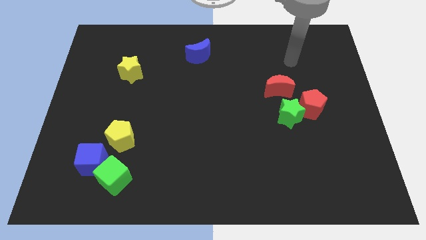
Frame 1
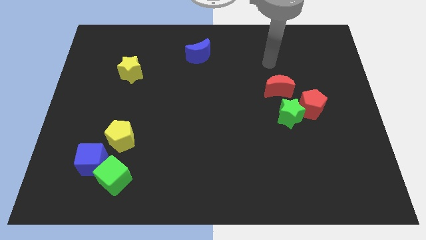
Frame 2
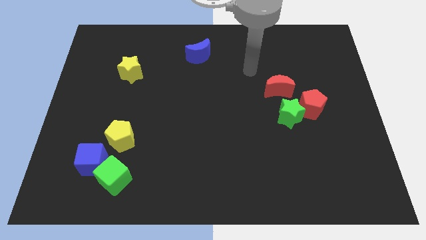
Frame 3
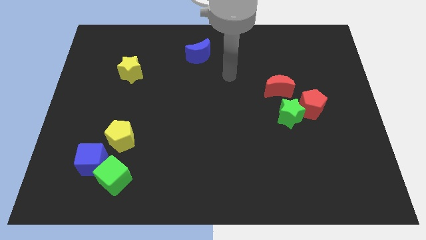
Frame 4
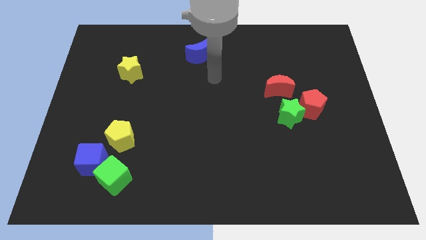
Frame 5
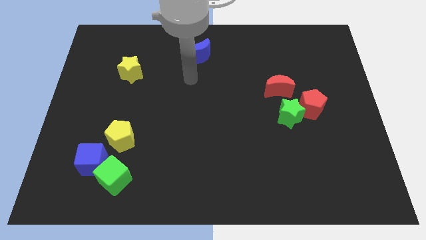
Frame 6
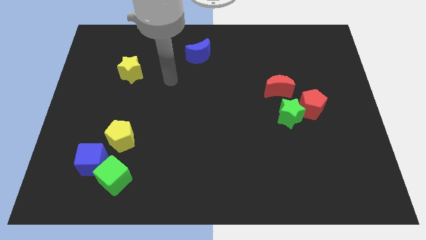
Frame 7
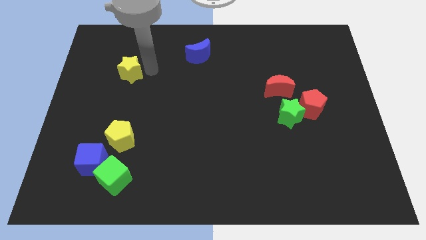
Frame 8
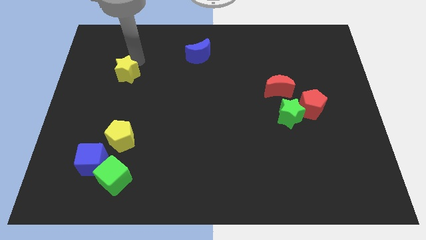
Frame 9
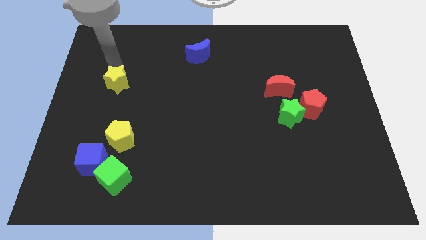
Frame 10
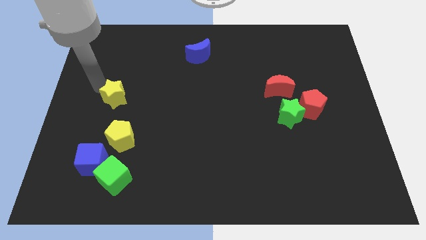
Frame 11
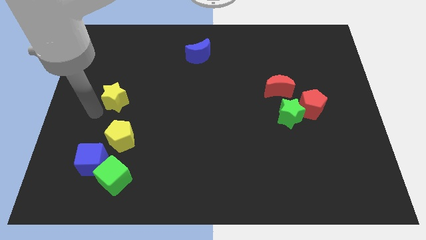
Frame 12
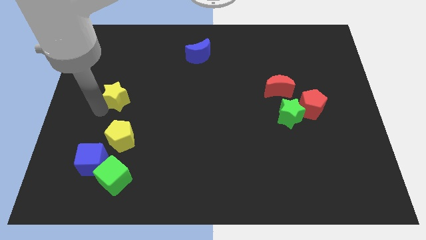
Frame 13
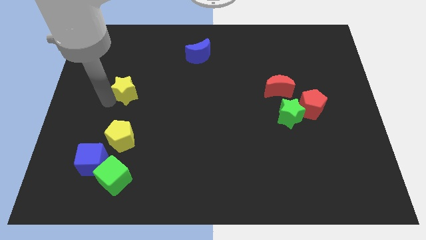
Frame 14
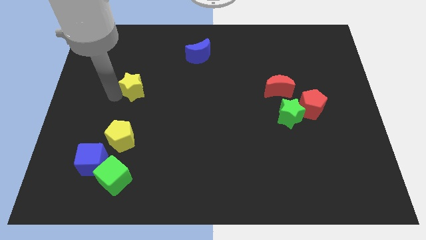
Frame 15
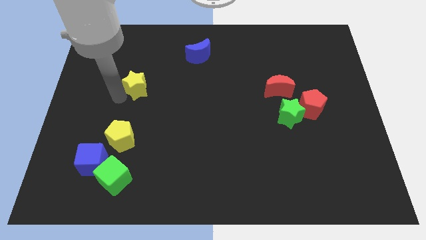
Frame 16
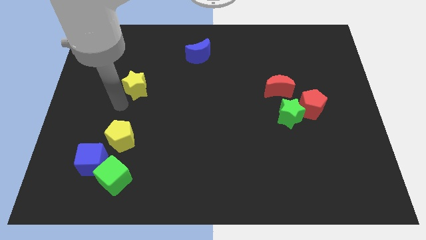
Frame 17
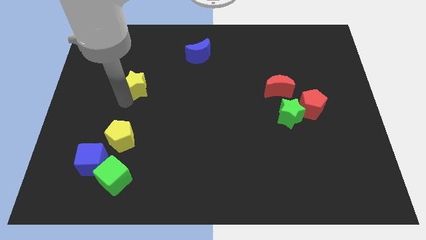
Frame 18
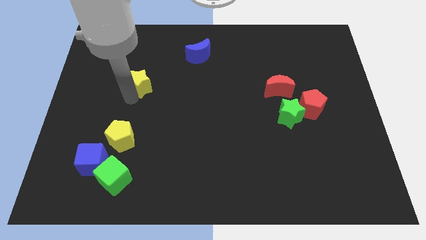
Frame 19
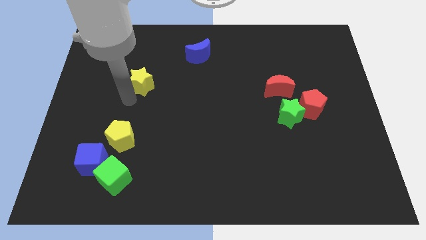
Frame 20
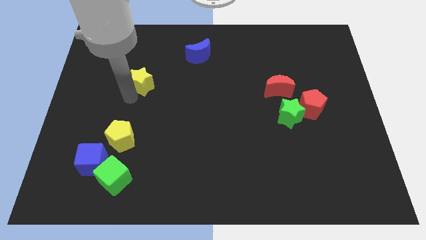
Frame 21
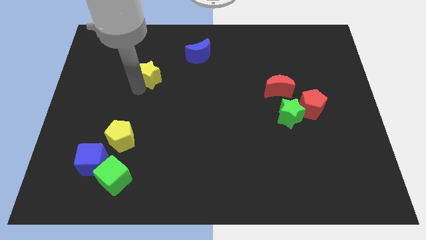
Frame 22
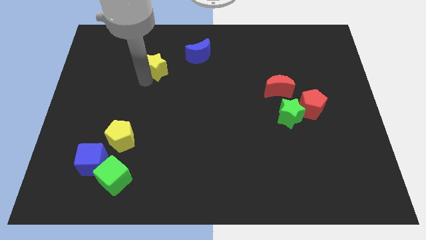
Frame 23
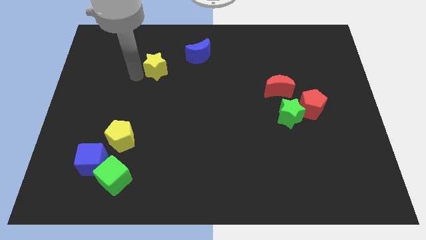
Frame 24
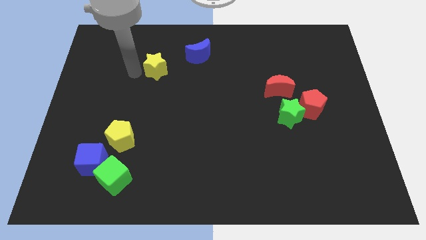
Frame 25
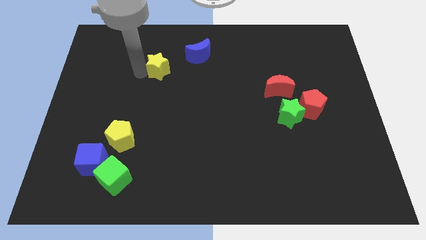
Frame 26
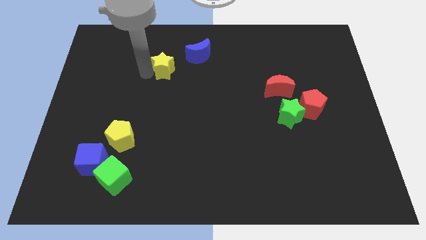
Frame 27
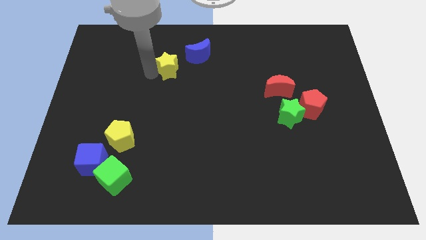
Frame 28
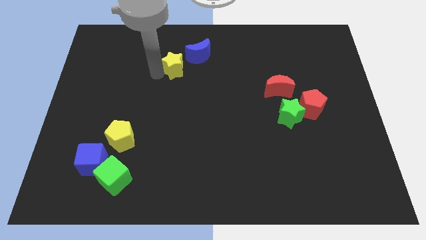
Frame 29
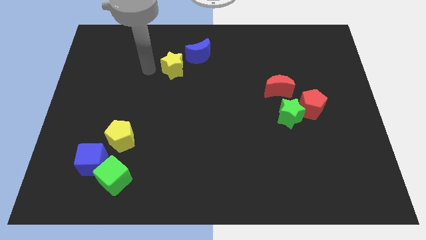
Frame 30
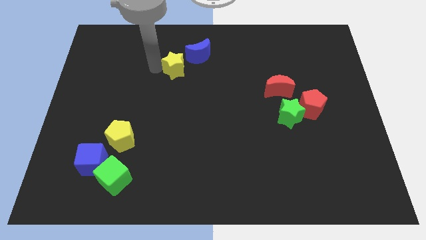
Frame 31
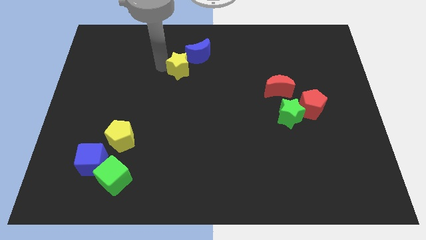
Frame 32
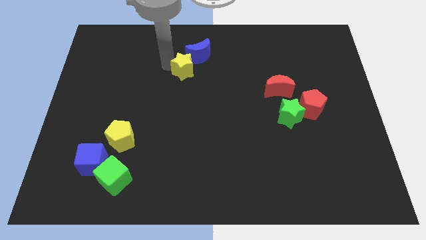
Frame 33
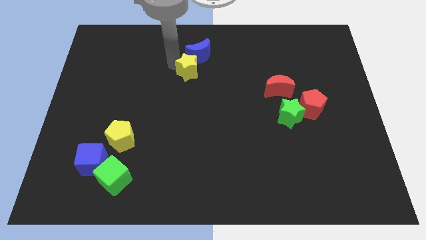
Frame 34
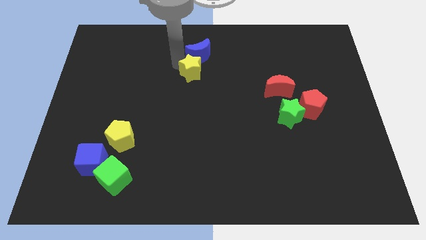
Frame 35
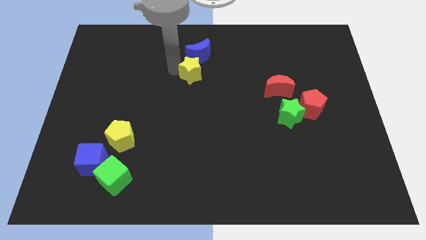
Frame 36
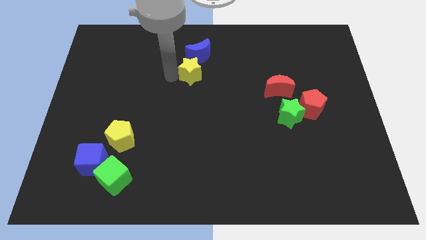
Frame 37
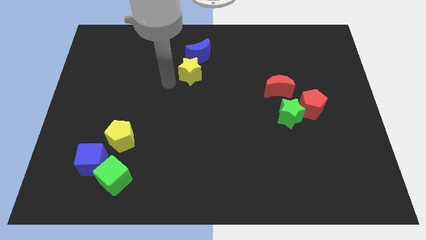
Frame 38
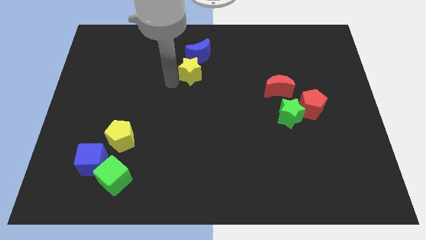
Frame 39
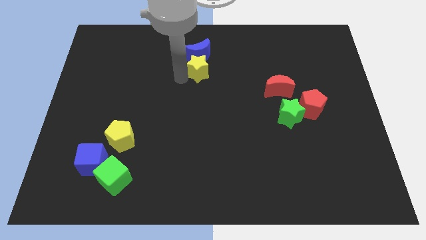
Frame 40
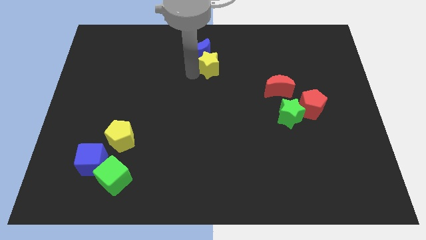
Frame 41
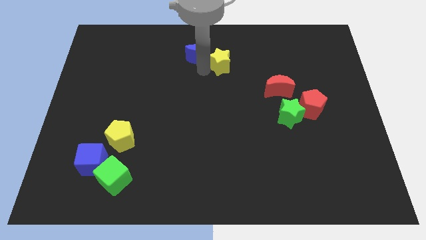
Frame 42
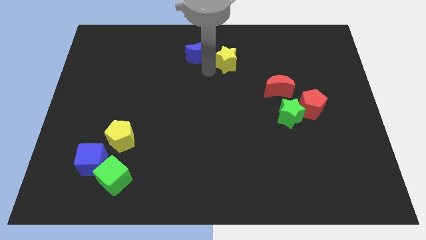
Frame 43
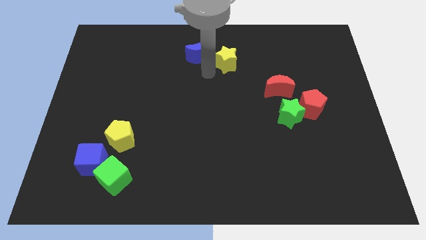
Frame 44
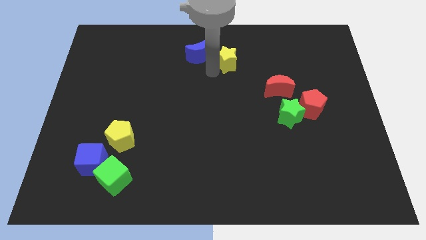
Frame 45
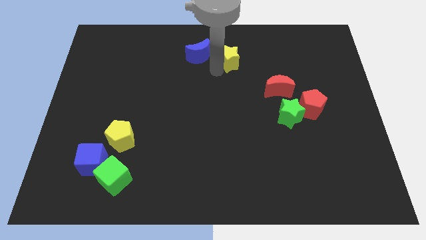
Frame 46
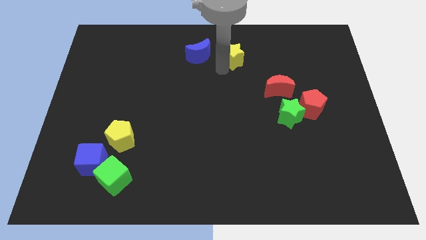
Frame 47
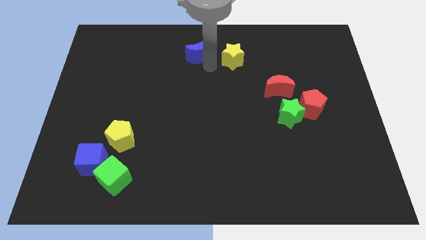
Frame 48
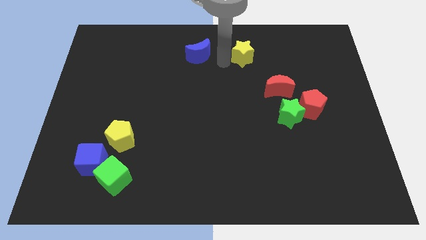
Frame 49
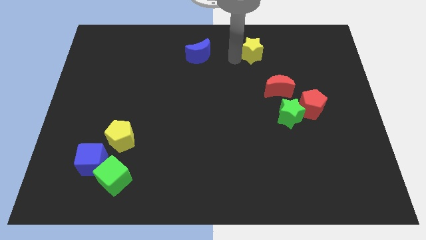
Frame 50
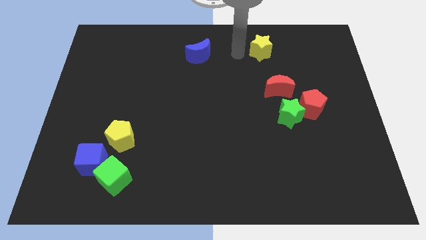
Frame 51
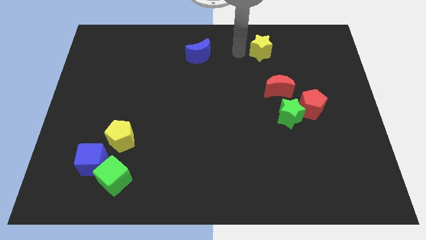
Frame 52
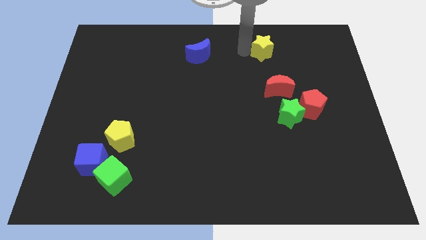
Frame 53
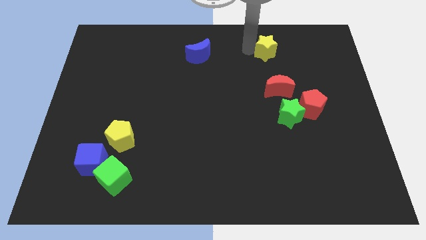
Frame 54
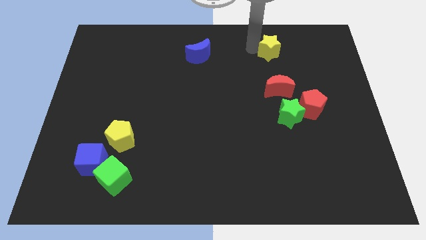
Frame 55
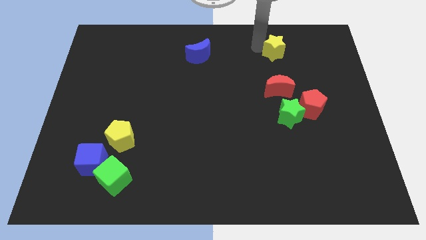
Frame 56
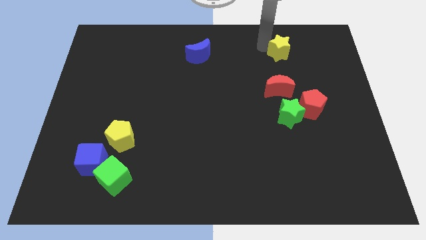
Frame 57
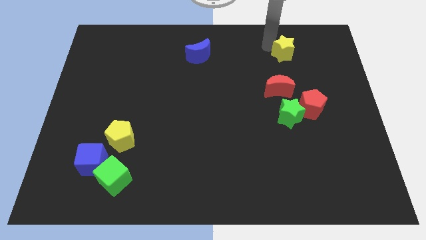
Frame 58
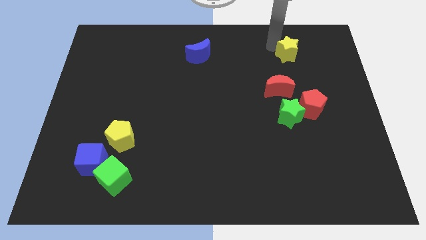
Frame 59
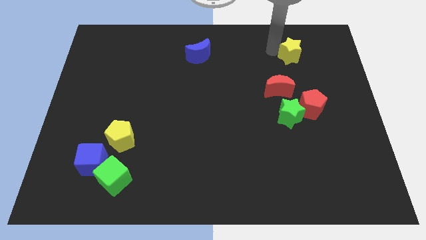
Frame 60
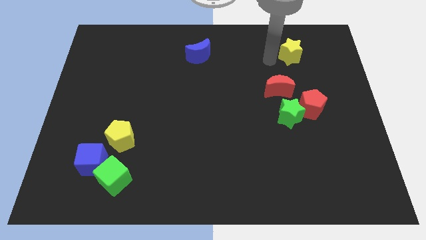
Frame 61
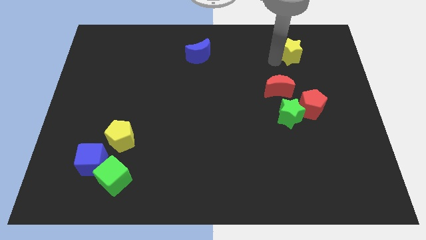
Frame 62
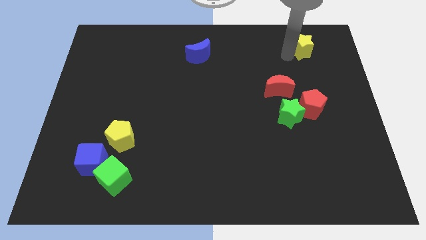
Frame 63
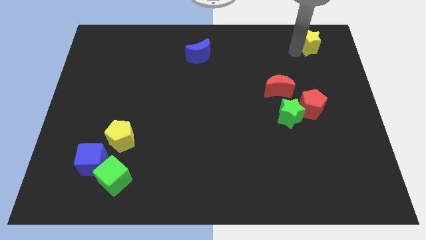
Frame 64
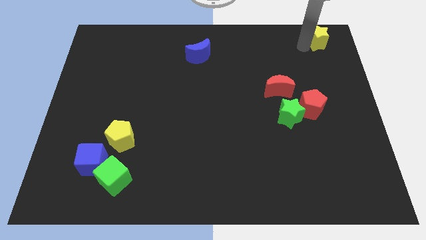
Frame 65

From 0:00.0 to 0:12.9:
push the yellow star to the upper right corner
